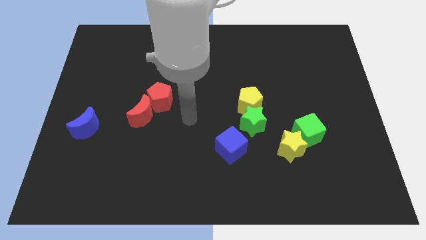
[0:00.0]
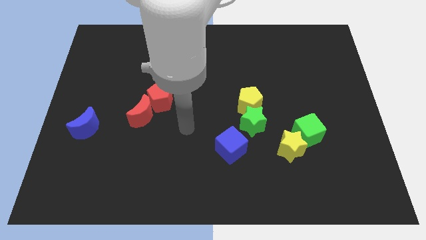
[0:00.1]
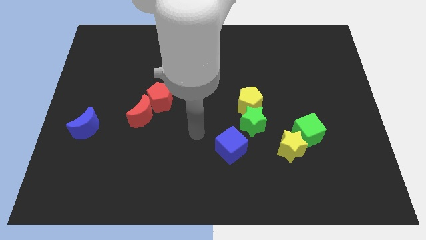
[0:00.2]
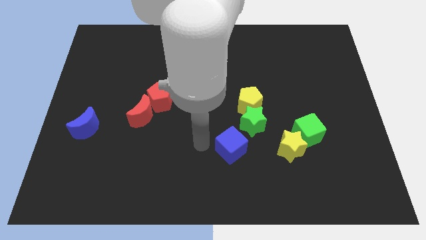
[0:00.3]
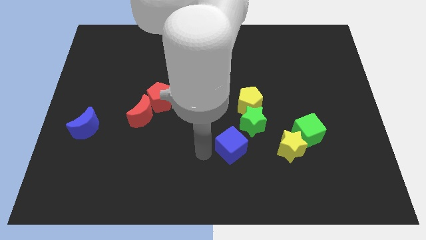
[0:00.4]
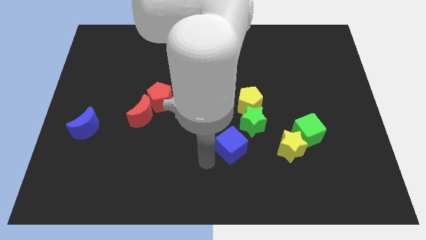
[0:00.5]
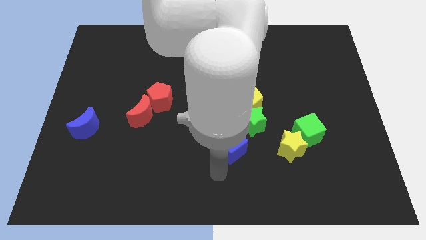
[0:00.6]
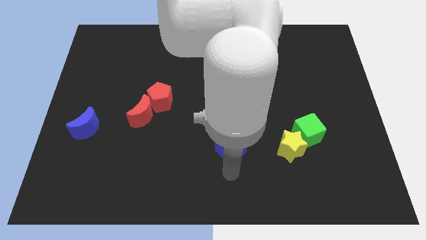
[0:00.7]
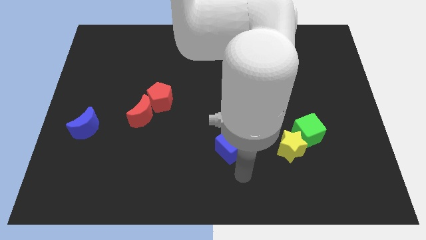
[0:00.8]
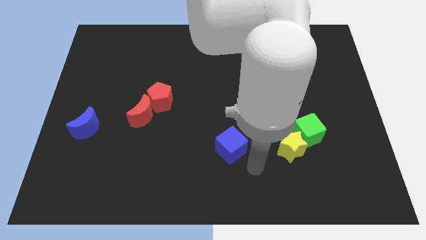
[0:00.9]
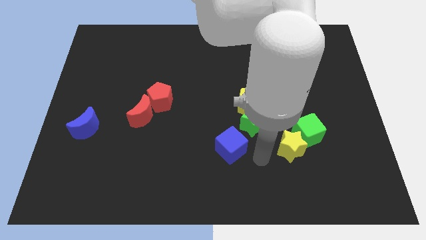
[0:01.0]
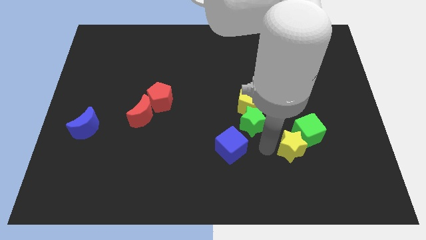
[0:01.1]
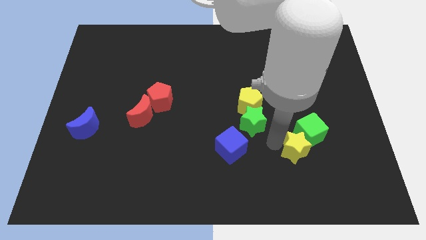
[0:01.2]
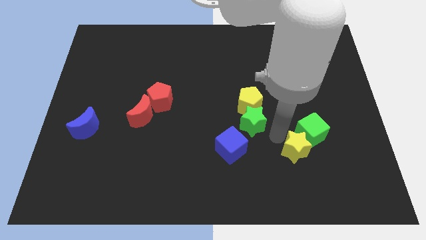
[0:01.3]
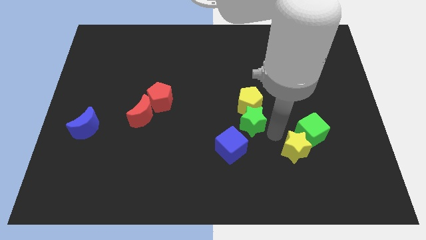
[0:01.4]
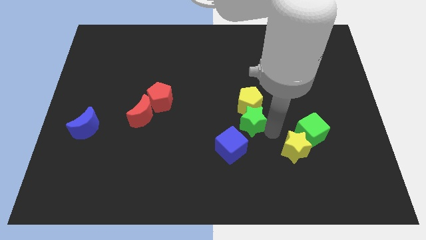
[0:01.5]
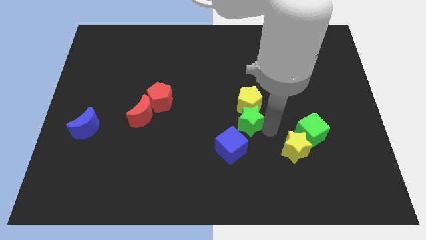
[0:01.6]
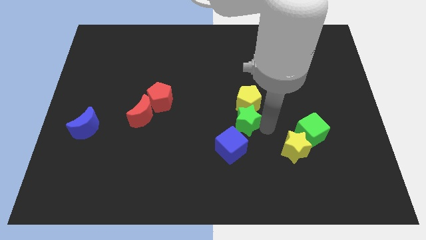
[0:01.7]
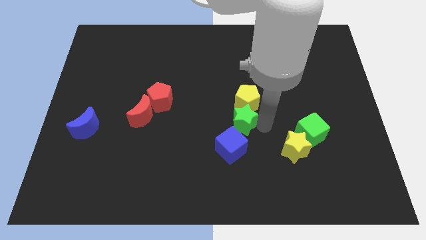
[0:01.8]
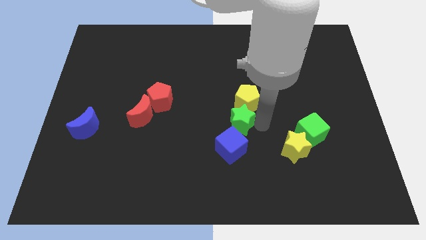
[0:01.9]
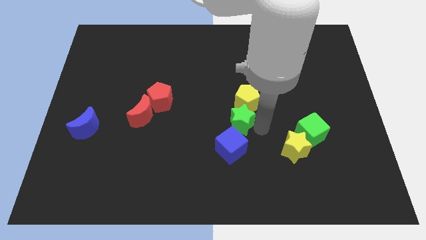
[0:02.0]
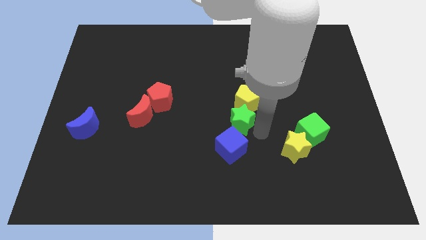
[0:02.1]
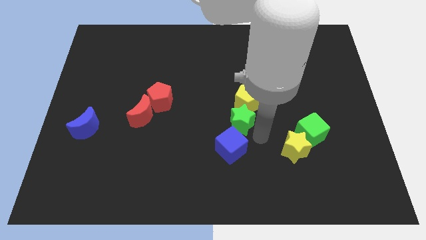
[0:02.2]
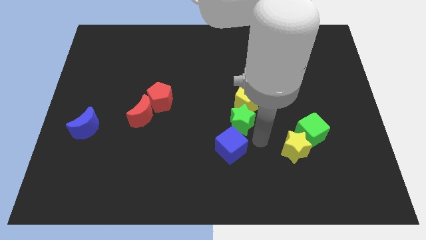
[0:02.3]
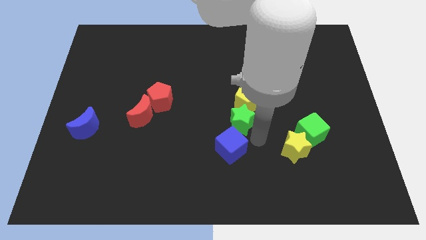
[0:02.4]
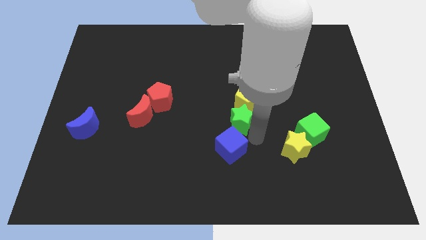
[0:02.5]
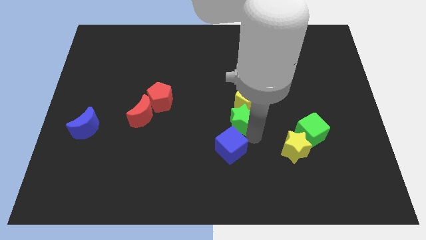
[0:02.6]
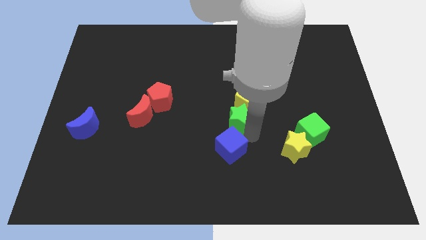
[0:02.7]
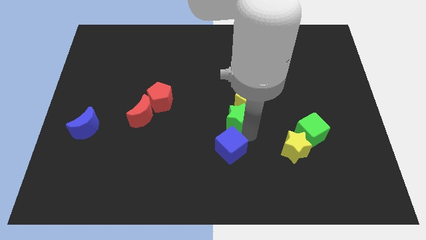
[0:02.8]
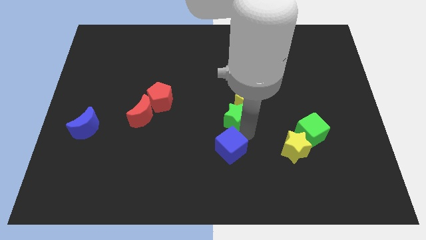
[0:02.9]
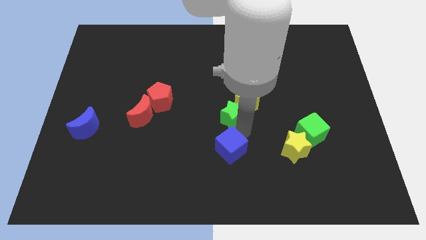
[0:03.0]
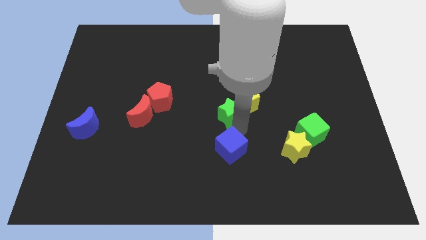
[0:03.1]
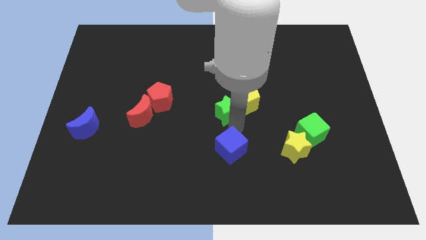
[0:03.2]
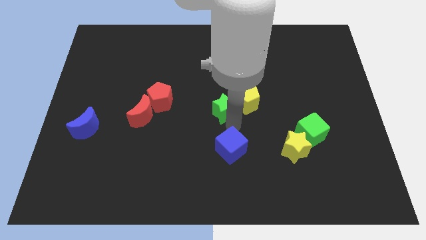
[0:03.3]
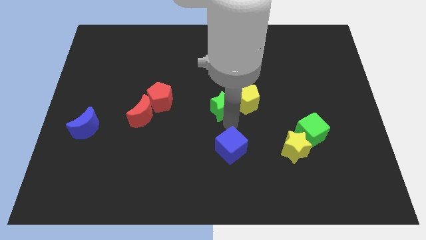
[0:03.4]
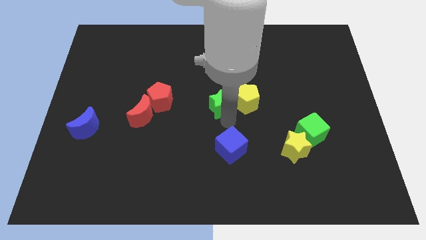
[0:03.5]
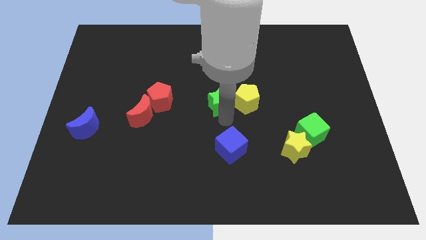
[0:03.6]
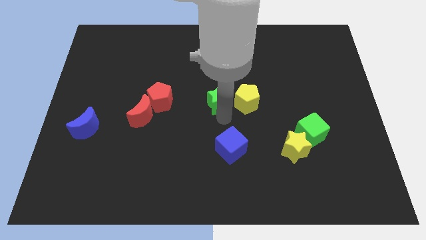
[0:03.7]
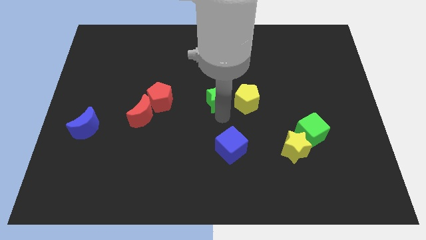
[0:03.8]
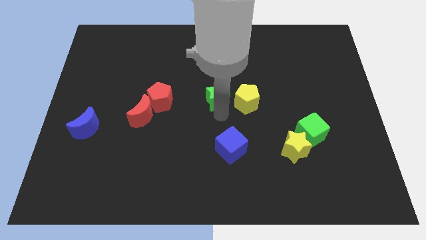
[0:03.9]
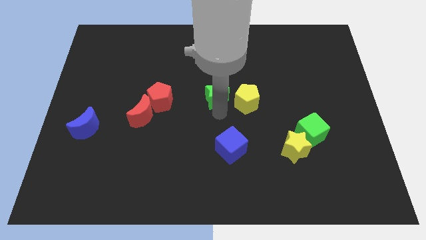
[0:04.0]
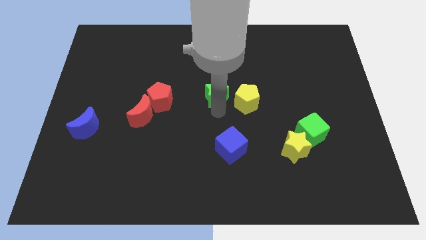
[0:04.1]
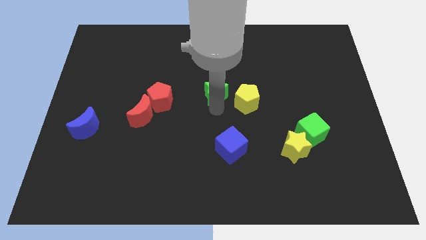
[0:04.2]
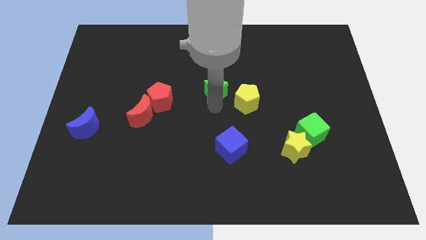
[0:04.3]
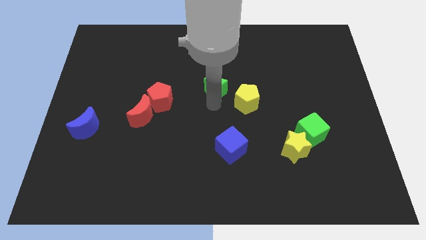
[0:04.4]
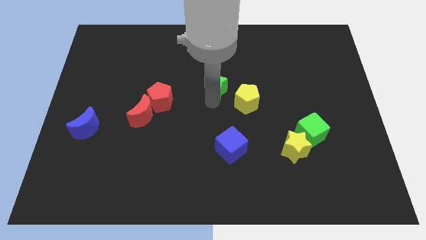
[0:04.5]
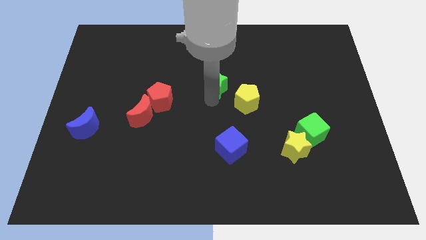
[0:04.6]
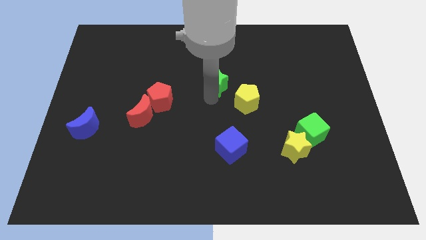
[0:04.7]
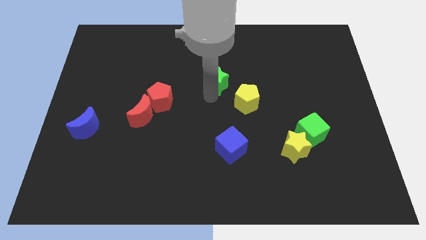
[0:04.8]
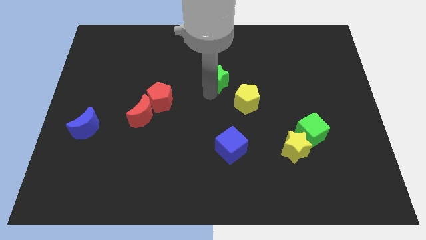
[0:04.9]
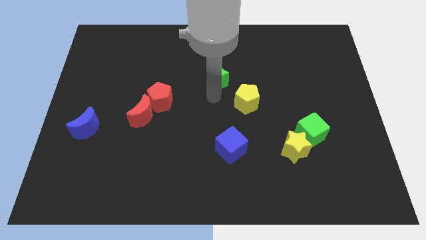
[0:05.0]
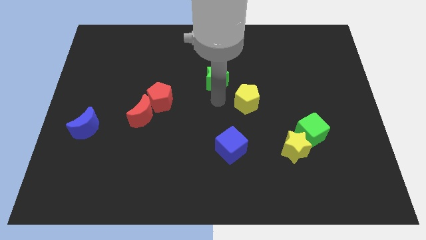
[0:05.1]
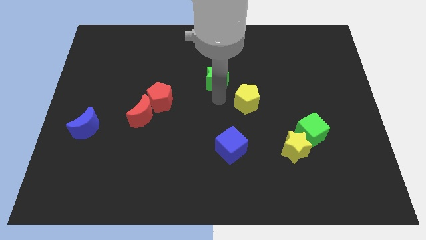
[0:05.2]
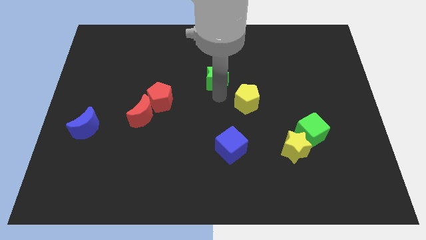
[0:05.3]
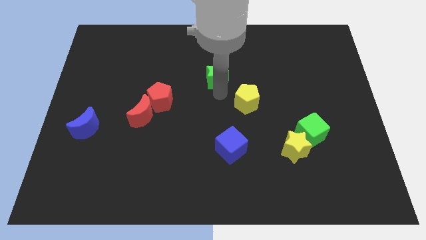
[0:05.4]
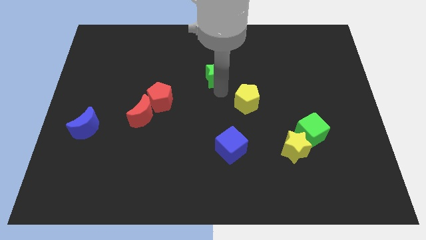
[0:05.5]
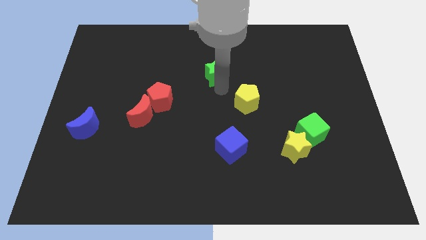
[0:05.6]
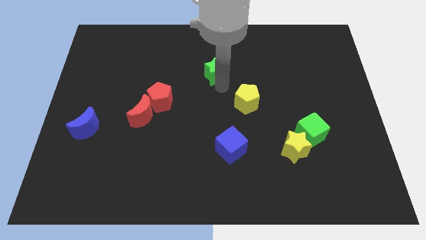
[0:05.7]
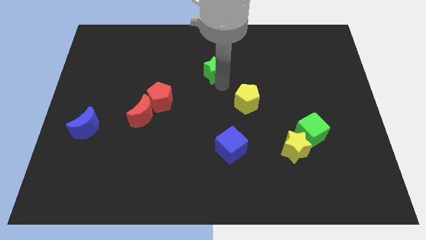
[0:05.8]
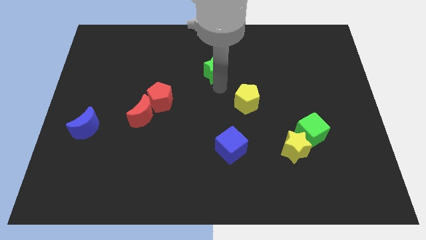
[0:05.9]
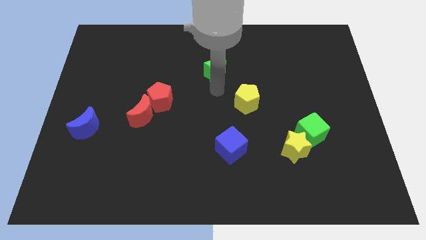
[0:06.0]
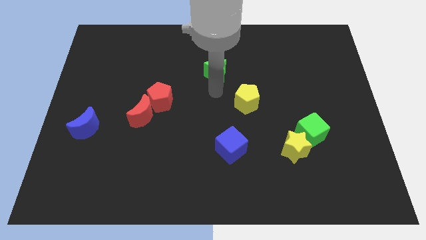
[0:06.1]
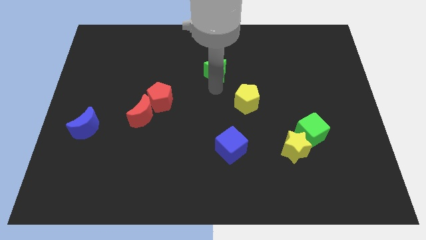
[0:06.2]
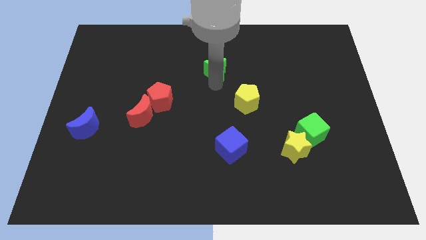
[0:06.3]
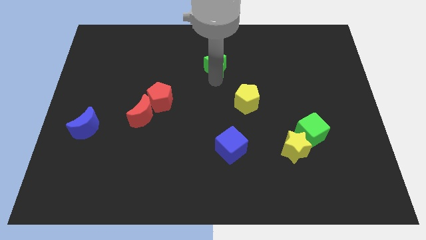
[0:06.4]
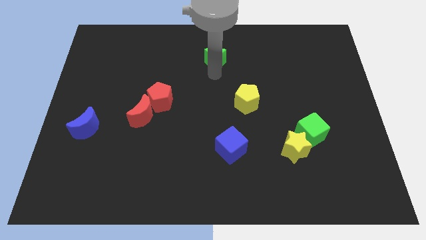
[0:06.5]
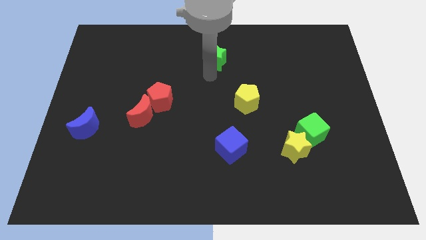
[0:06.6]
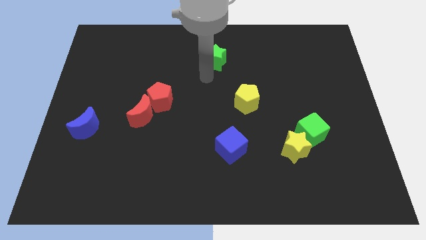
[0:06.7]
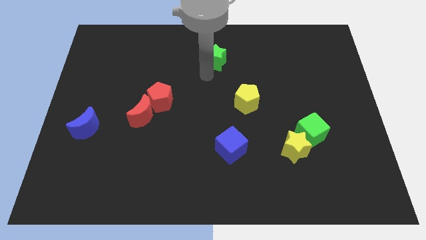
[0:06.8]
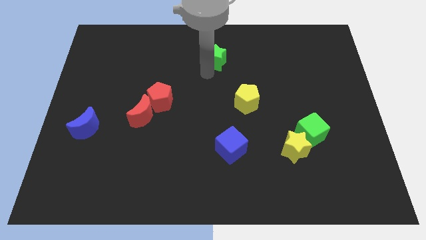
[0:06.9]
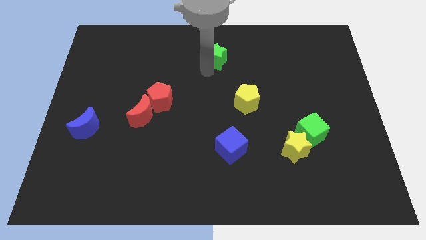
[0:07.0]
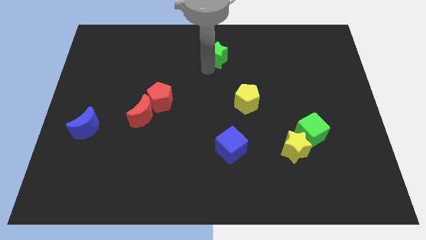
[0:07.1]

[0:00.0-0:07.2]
slide the green star to the top
